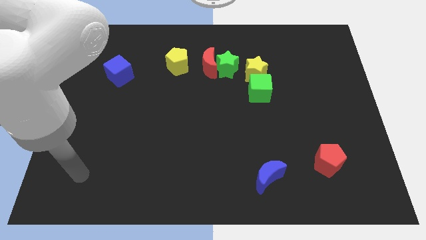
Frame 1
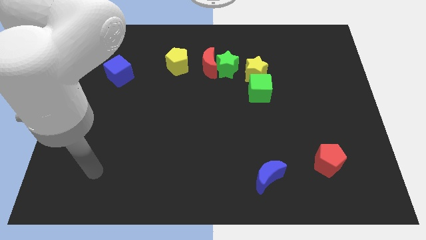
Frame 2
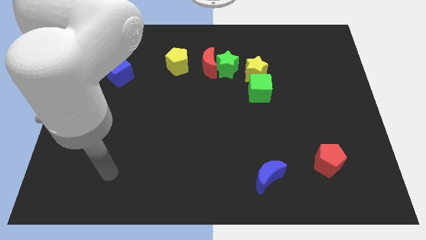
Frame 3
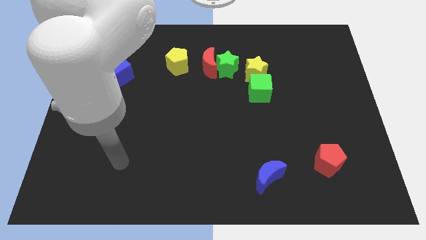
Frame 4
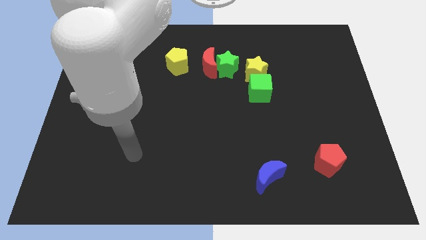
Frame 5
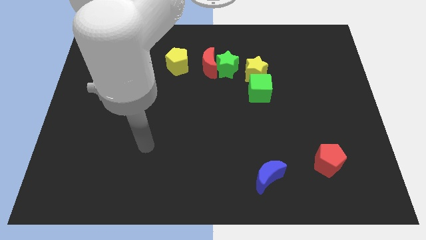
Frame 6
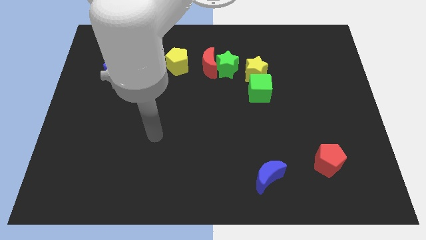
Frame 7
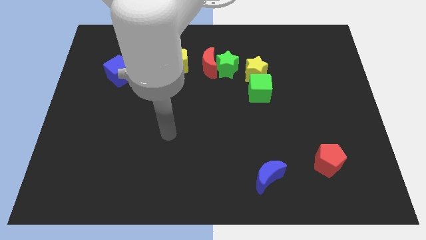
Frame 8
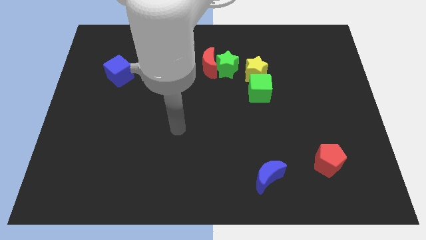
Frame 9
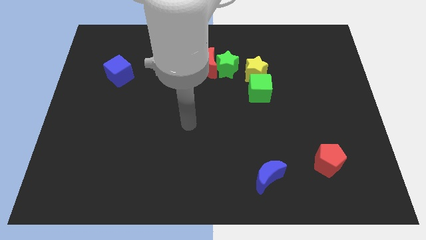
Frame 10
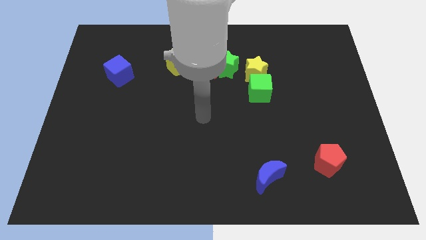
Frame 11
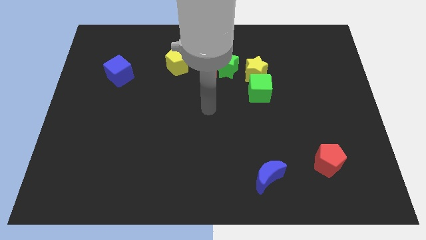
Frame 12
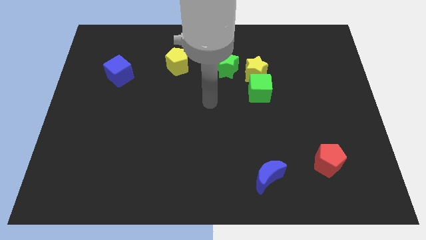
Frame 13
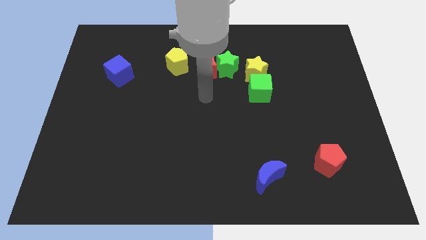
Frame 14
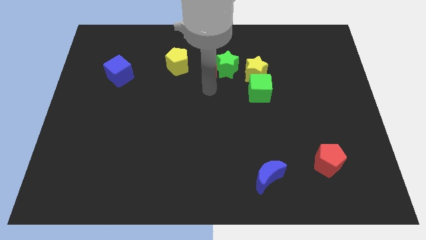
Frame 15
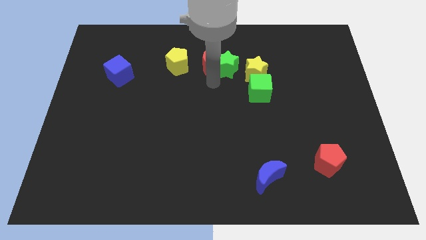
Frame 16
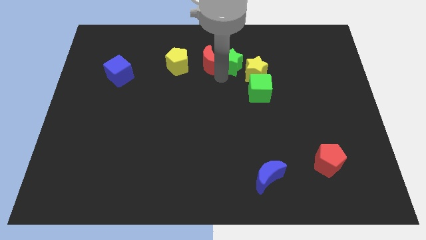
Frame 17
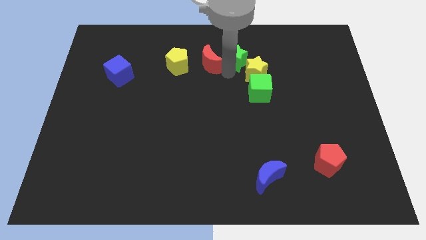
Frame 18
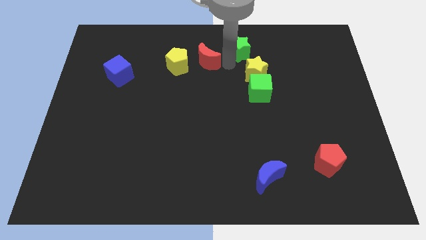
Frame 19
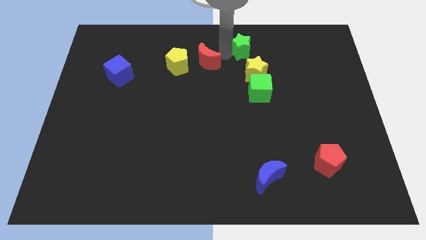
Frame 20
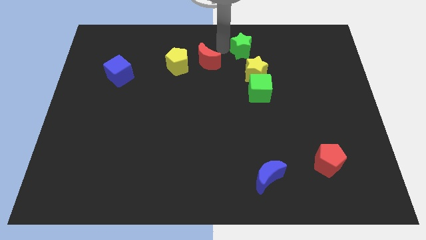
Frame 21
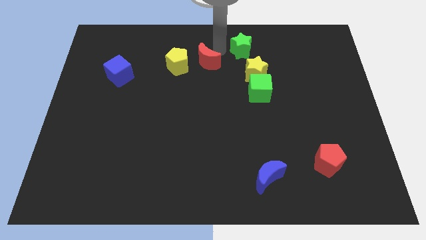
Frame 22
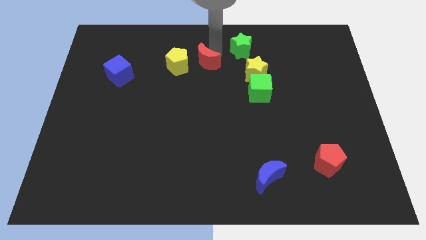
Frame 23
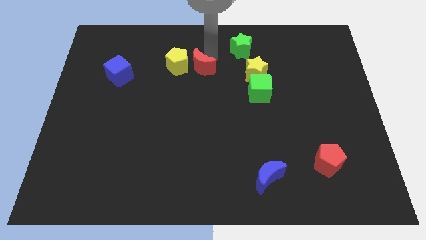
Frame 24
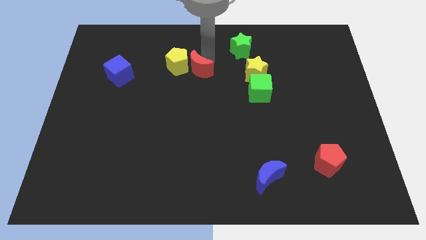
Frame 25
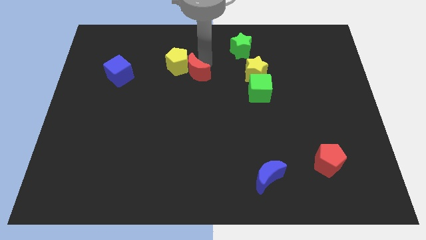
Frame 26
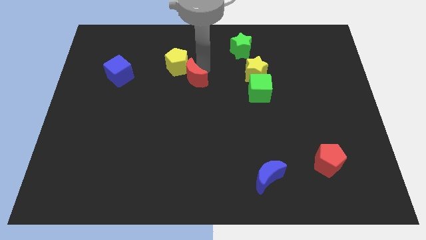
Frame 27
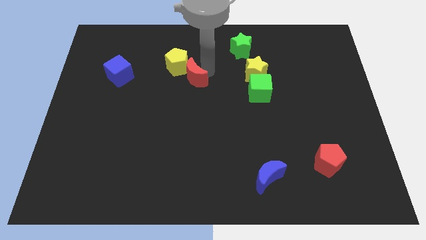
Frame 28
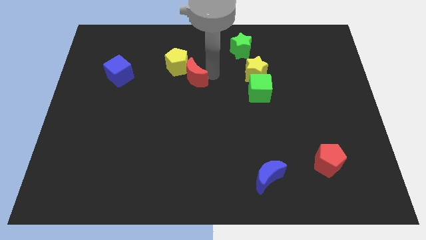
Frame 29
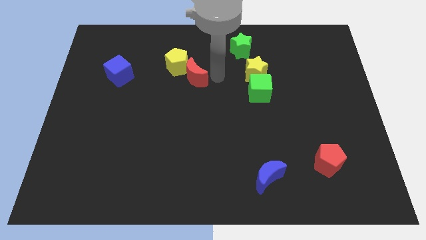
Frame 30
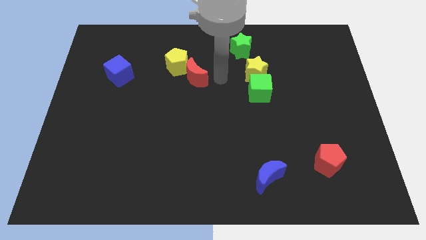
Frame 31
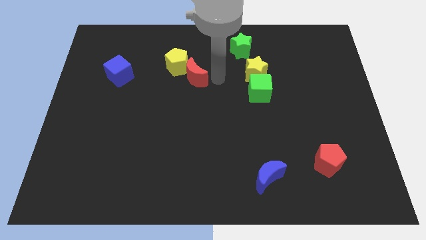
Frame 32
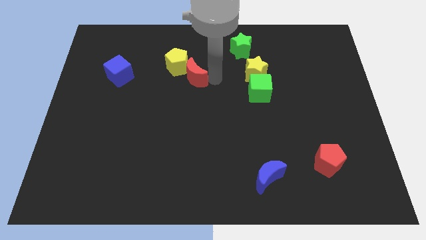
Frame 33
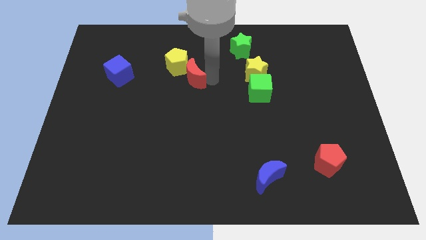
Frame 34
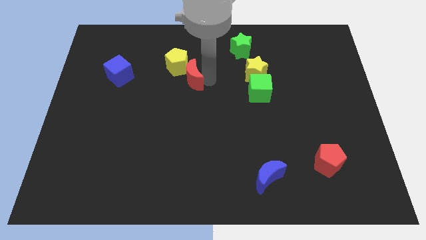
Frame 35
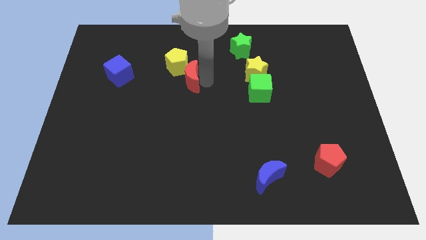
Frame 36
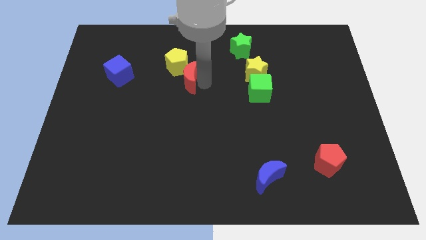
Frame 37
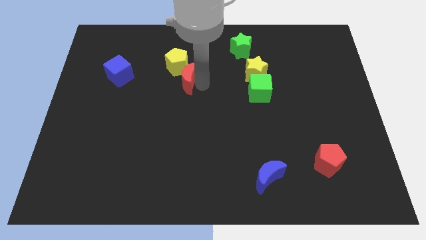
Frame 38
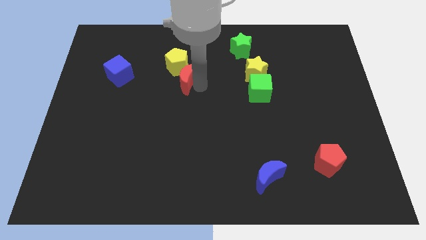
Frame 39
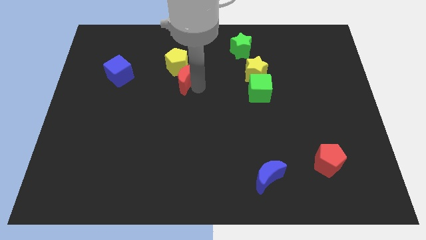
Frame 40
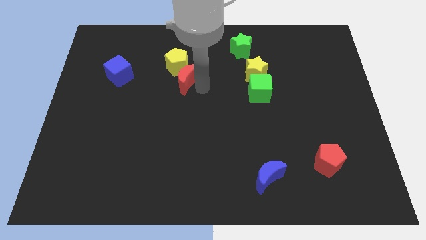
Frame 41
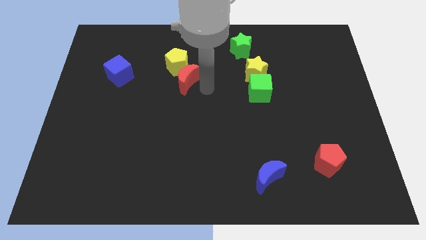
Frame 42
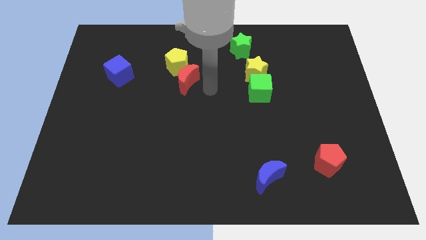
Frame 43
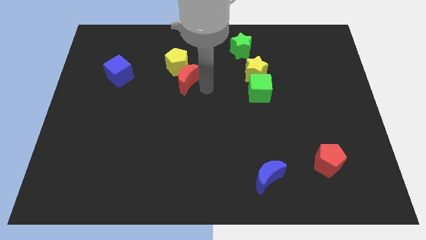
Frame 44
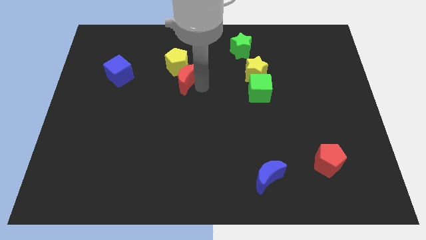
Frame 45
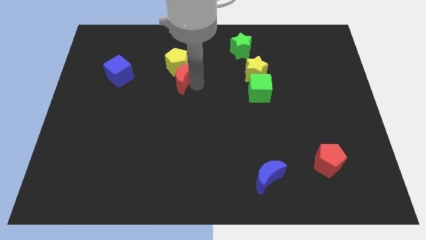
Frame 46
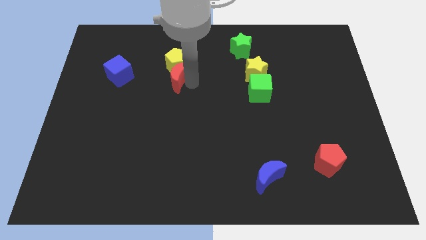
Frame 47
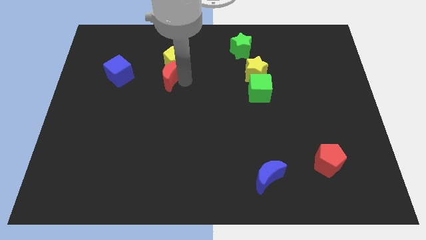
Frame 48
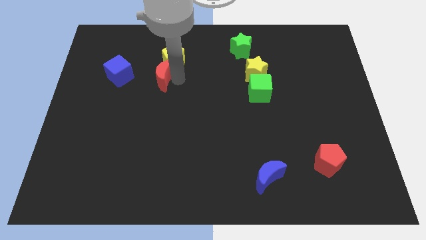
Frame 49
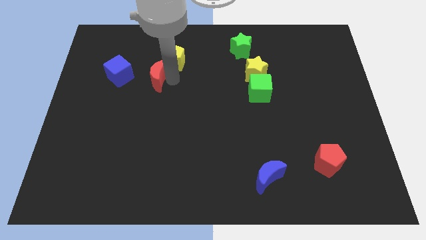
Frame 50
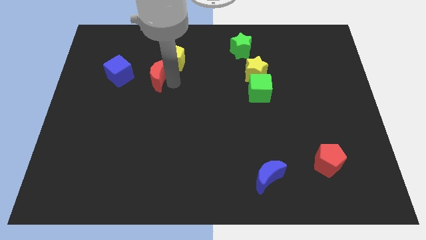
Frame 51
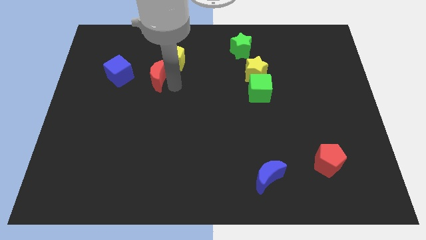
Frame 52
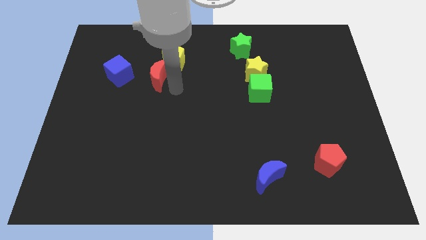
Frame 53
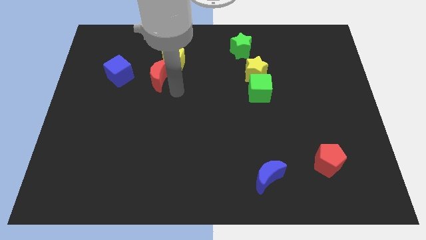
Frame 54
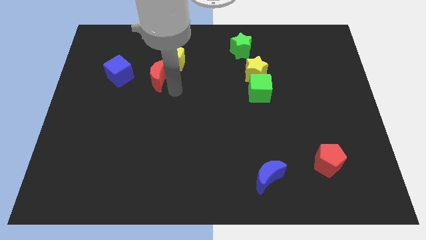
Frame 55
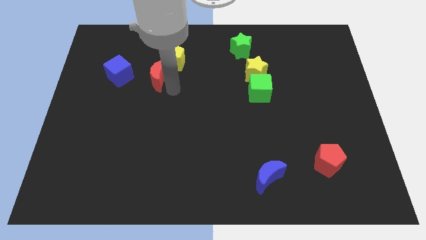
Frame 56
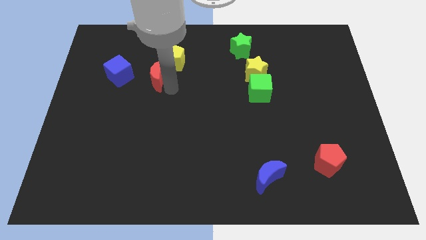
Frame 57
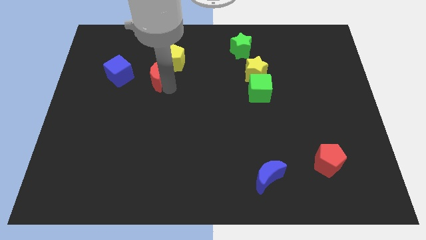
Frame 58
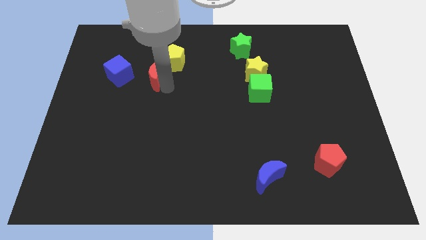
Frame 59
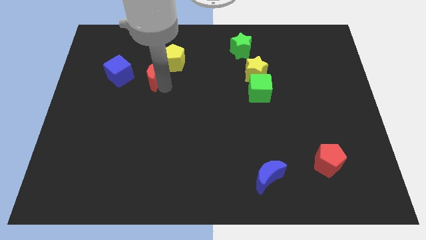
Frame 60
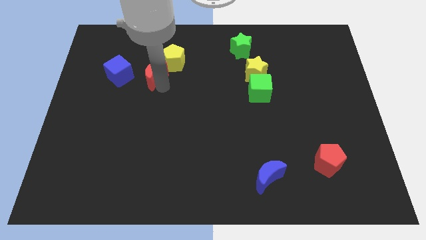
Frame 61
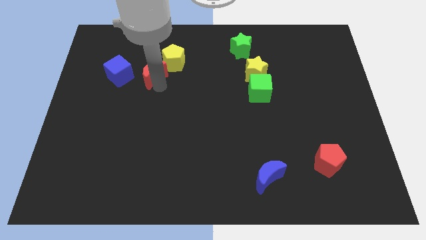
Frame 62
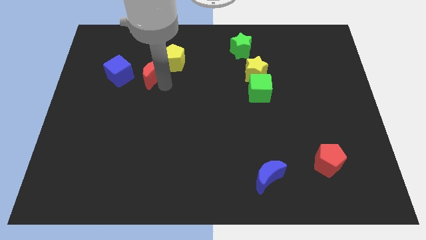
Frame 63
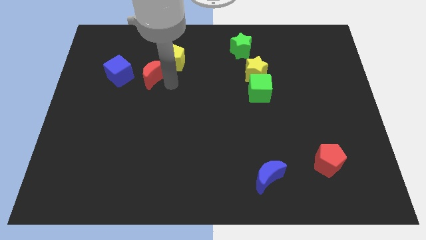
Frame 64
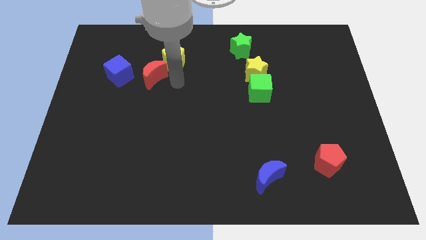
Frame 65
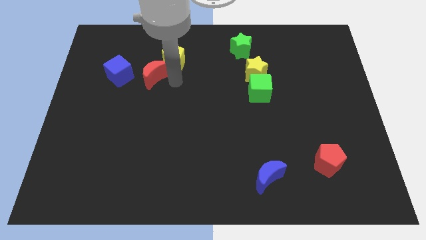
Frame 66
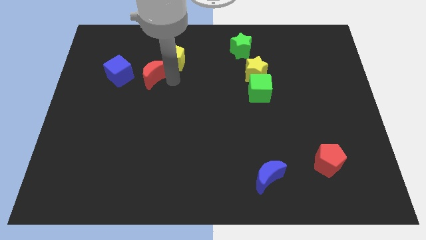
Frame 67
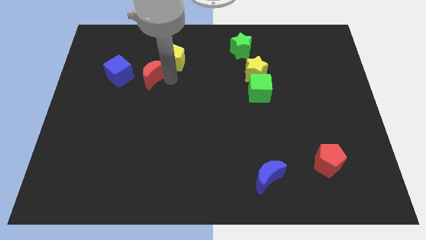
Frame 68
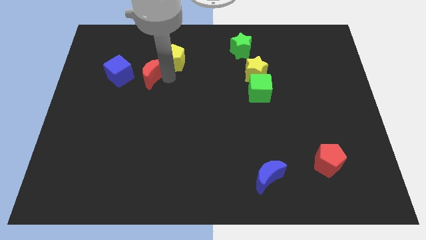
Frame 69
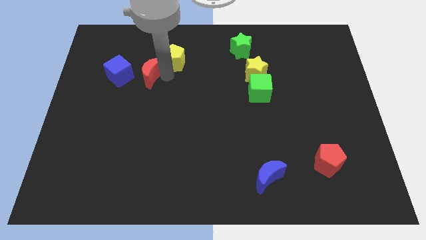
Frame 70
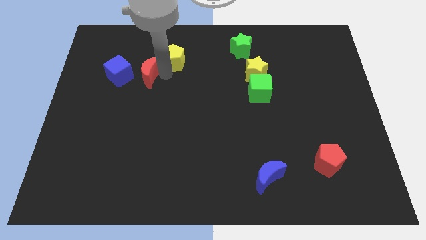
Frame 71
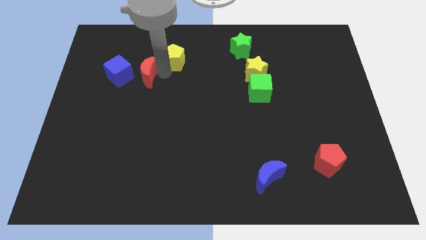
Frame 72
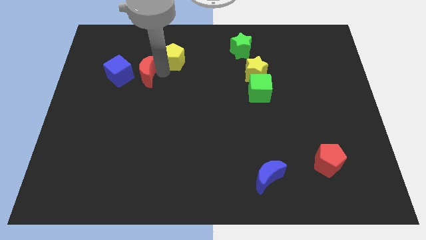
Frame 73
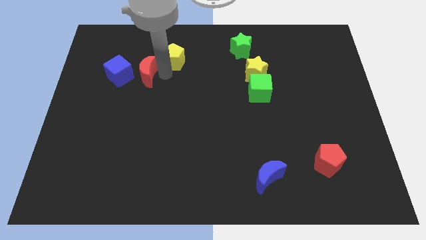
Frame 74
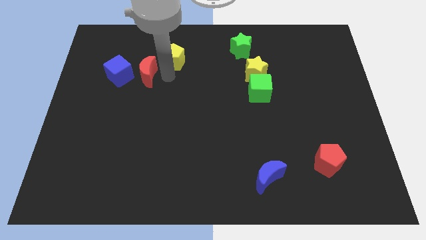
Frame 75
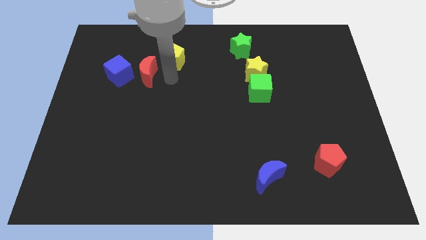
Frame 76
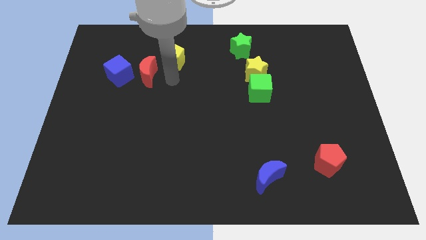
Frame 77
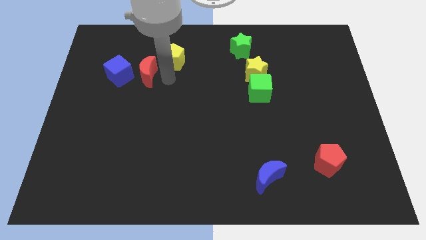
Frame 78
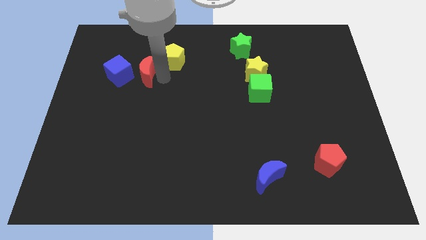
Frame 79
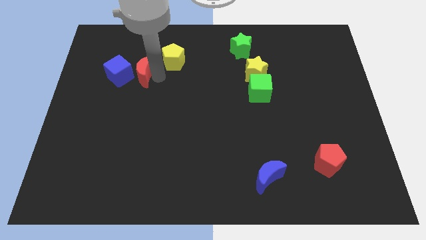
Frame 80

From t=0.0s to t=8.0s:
move the red moon close to the blue cube
